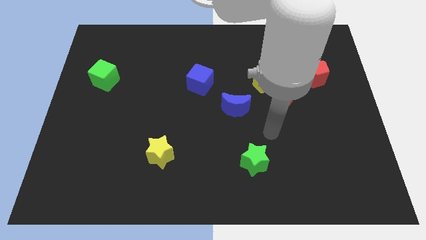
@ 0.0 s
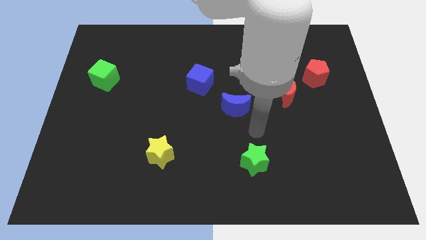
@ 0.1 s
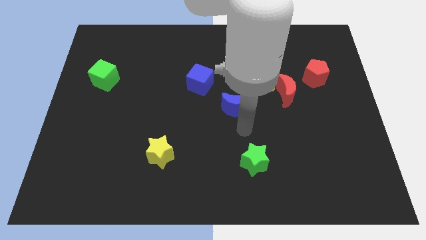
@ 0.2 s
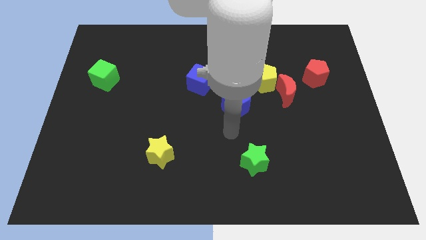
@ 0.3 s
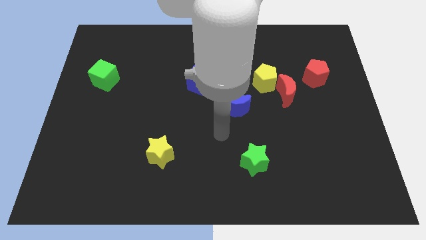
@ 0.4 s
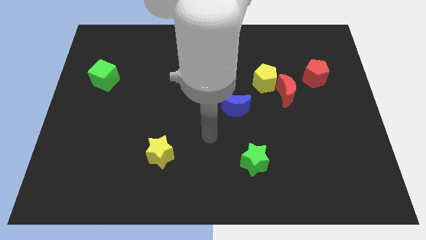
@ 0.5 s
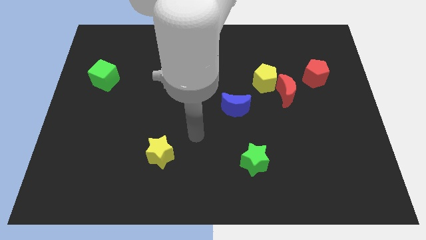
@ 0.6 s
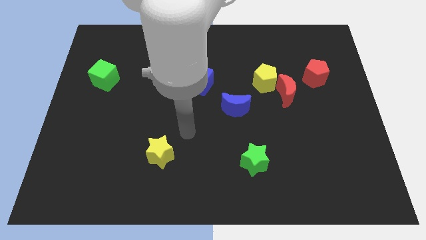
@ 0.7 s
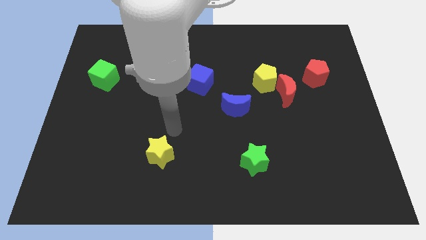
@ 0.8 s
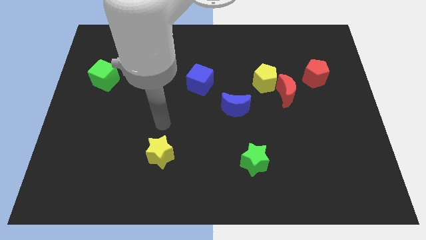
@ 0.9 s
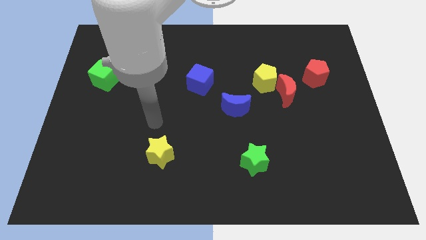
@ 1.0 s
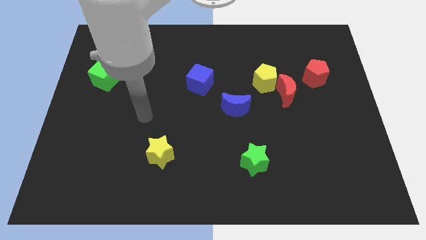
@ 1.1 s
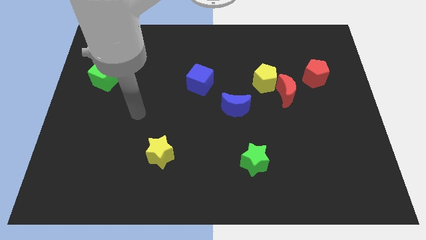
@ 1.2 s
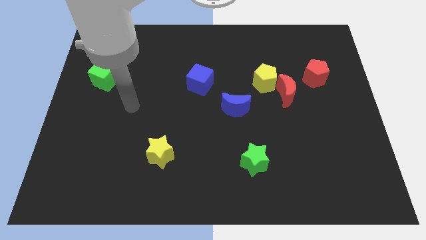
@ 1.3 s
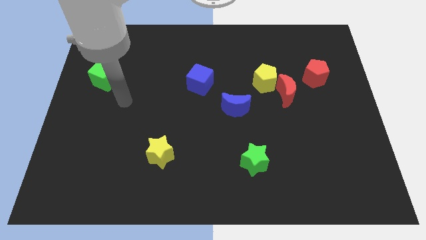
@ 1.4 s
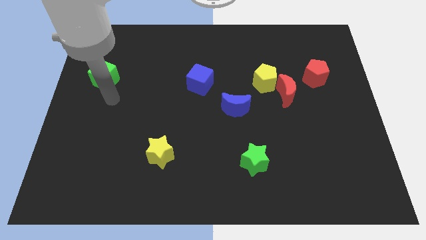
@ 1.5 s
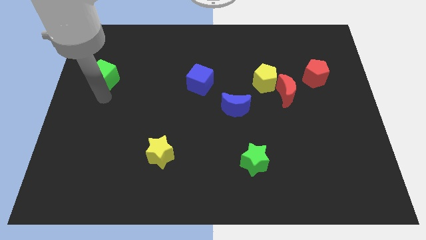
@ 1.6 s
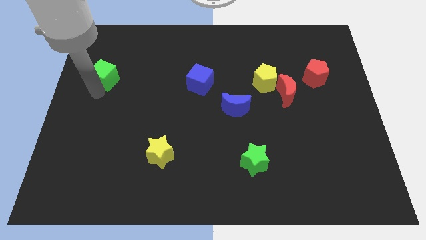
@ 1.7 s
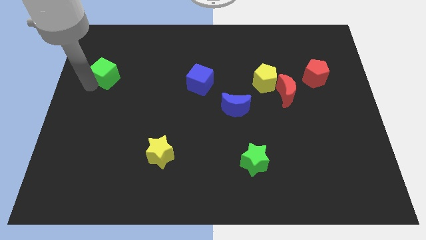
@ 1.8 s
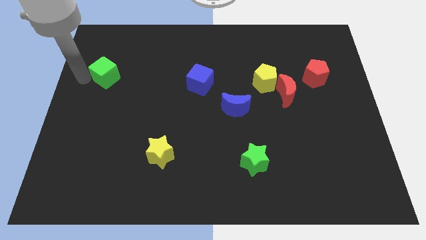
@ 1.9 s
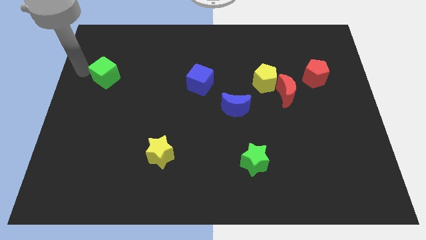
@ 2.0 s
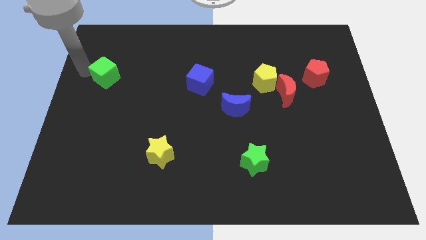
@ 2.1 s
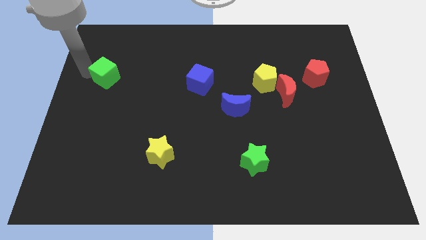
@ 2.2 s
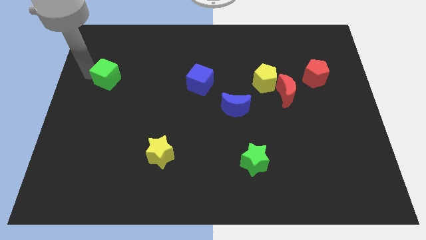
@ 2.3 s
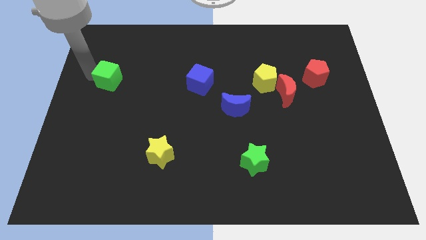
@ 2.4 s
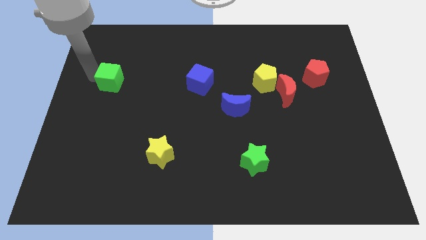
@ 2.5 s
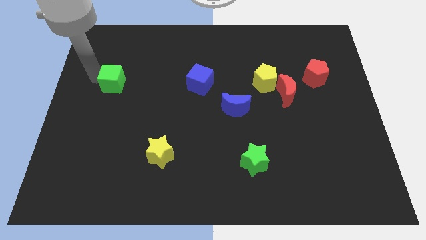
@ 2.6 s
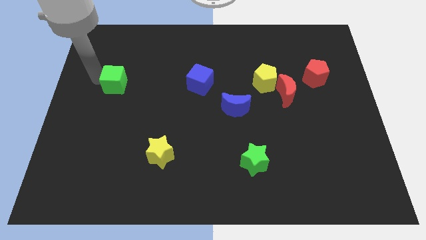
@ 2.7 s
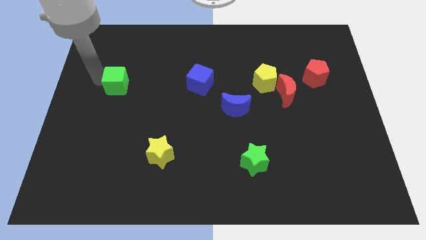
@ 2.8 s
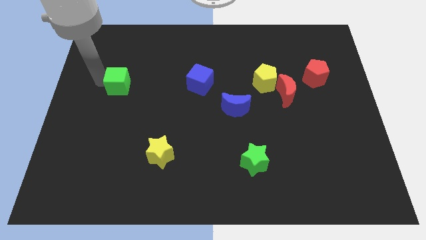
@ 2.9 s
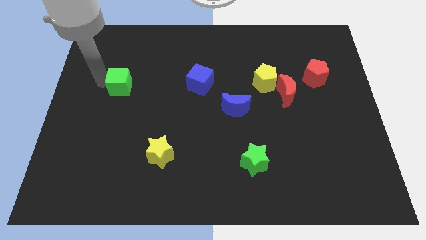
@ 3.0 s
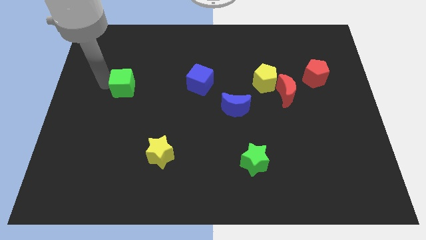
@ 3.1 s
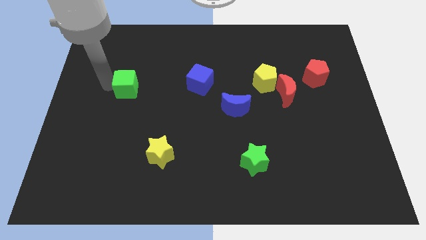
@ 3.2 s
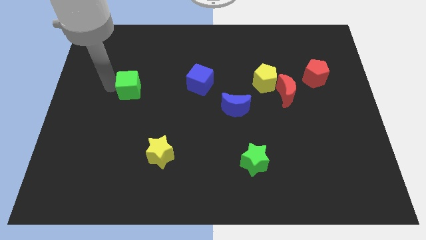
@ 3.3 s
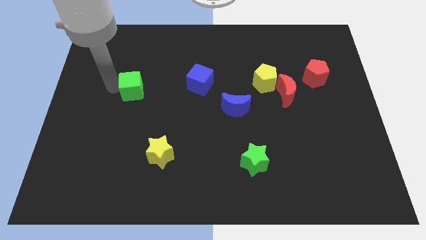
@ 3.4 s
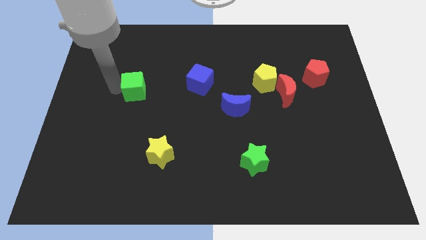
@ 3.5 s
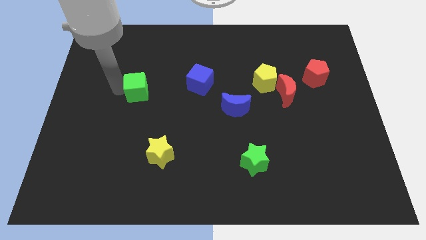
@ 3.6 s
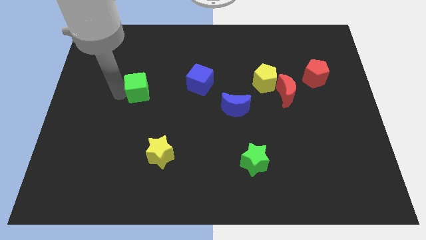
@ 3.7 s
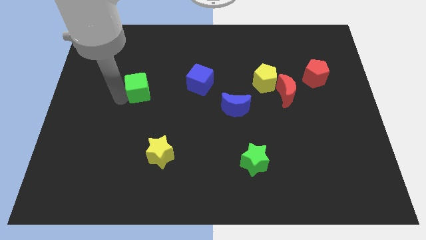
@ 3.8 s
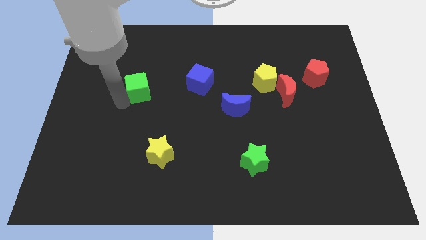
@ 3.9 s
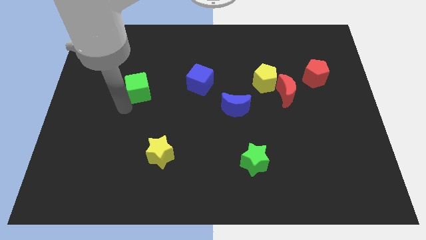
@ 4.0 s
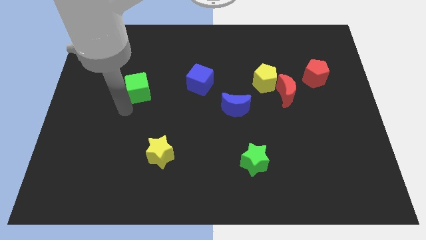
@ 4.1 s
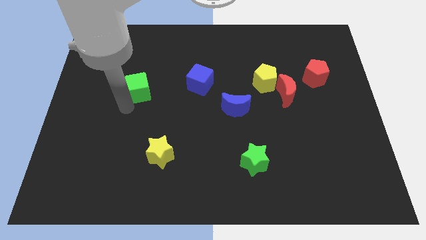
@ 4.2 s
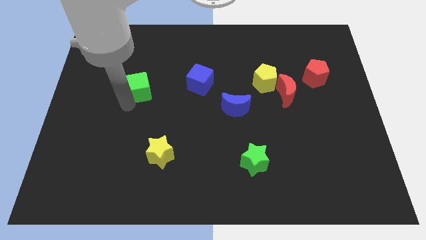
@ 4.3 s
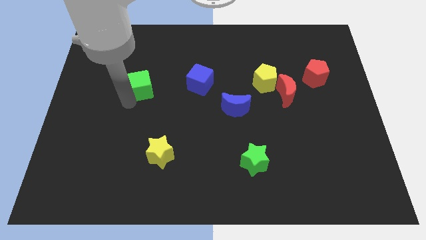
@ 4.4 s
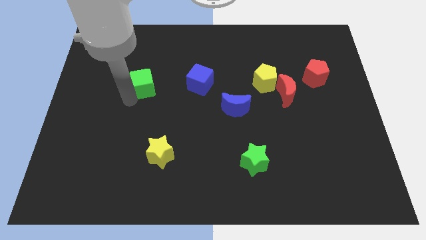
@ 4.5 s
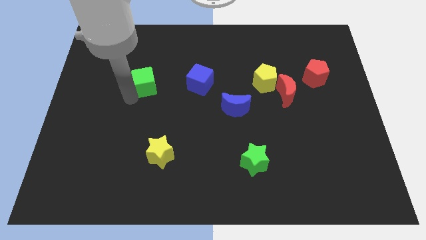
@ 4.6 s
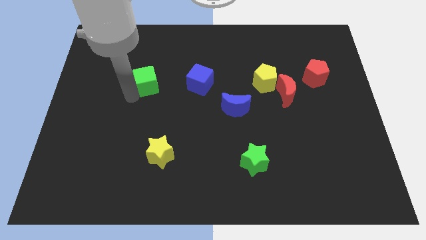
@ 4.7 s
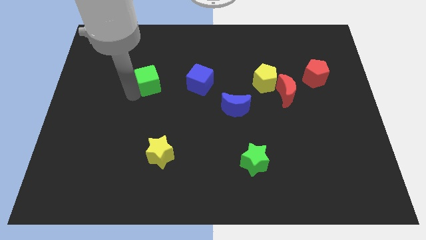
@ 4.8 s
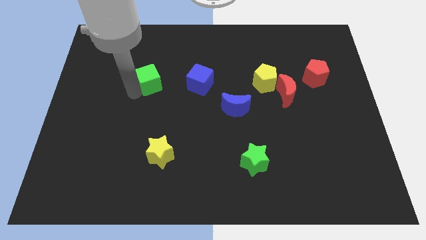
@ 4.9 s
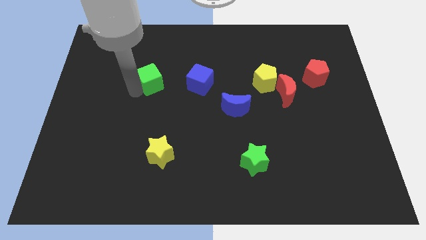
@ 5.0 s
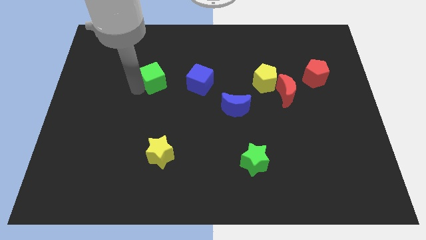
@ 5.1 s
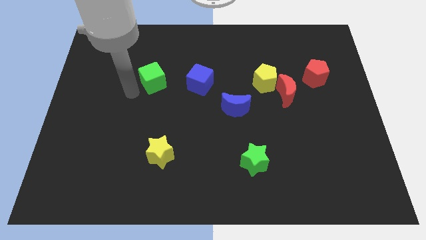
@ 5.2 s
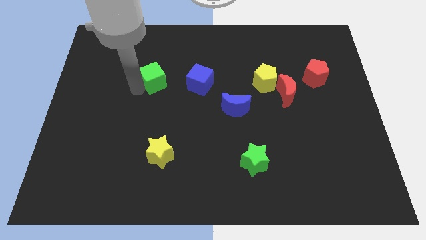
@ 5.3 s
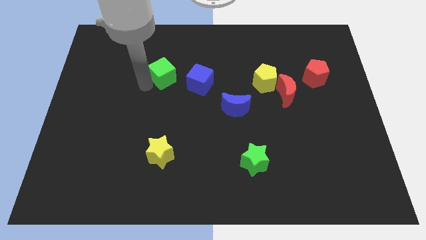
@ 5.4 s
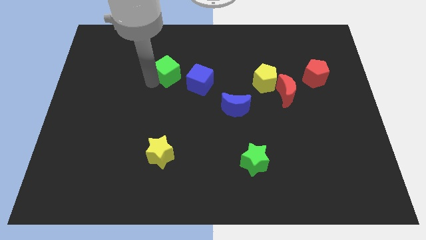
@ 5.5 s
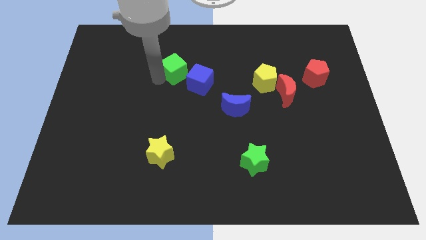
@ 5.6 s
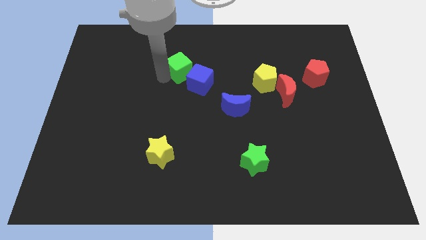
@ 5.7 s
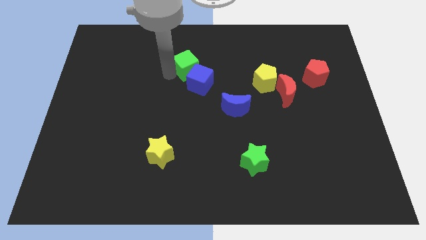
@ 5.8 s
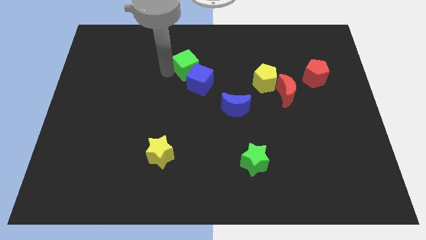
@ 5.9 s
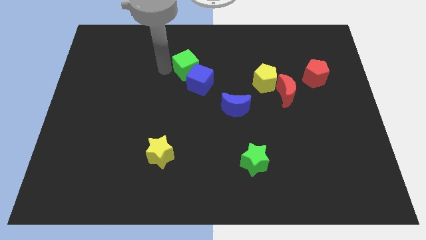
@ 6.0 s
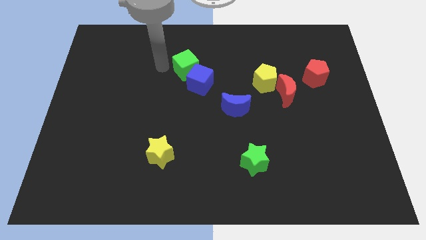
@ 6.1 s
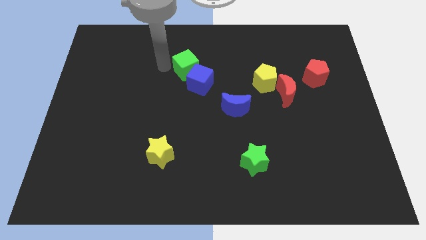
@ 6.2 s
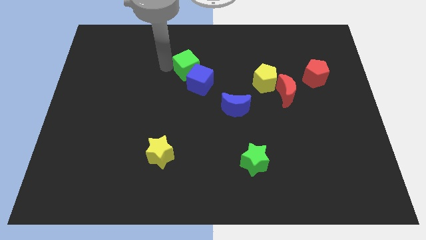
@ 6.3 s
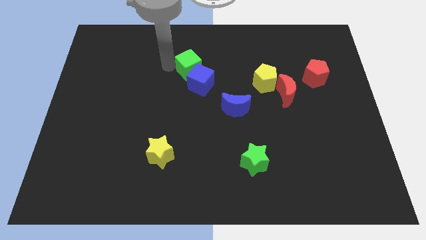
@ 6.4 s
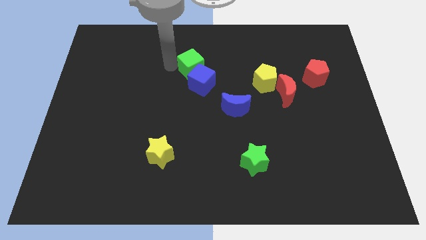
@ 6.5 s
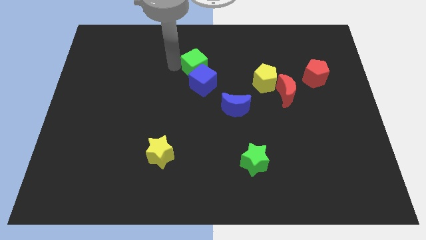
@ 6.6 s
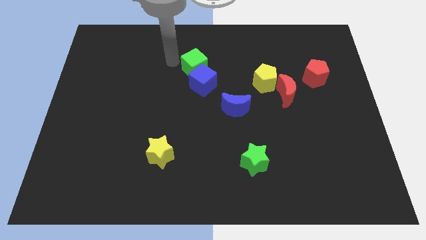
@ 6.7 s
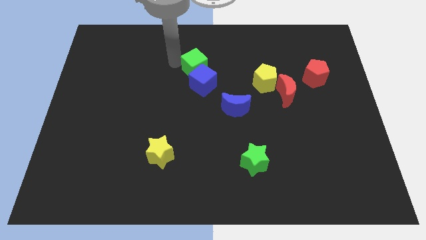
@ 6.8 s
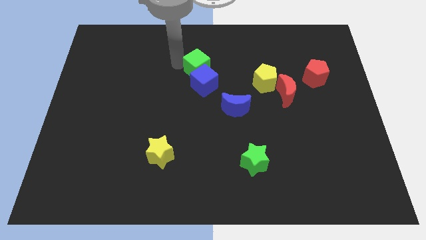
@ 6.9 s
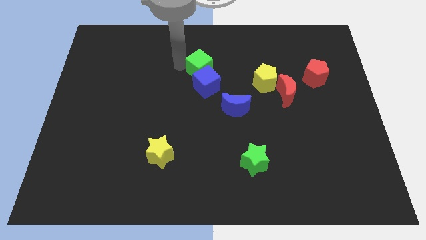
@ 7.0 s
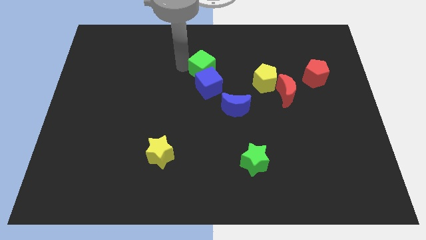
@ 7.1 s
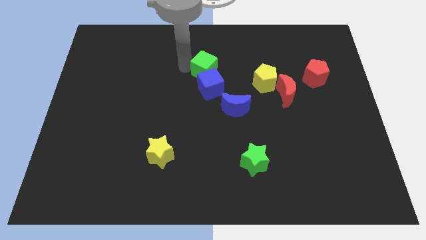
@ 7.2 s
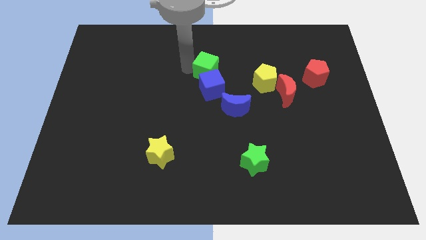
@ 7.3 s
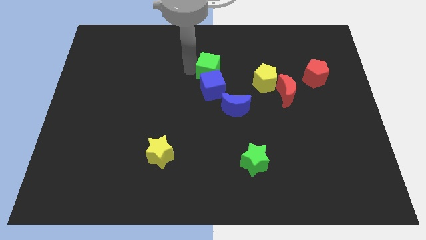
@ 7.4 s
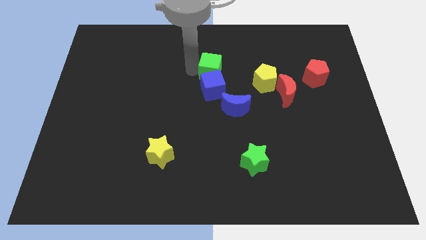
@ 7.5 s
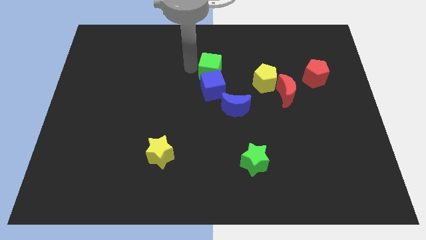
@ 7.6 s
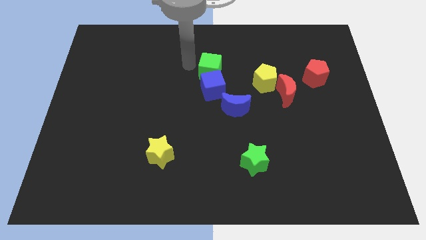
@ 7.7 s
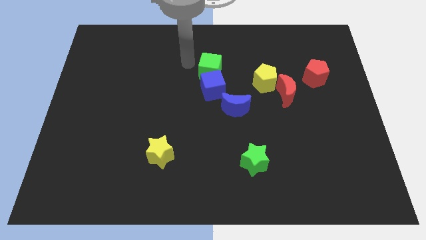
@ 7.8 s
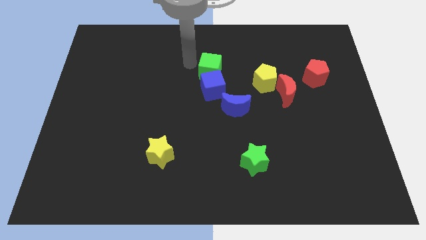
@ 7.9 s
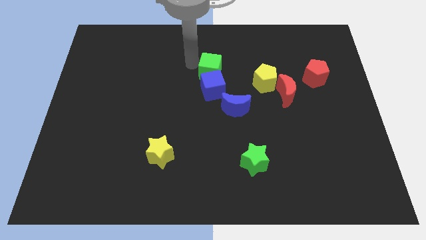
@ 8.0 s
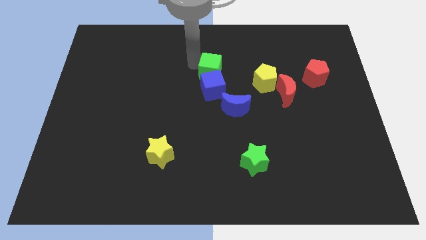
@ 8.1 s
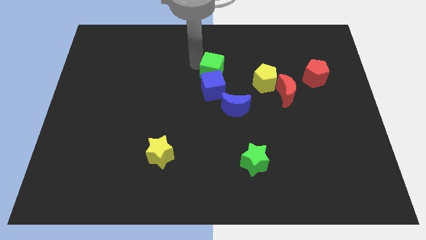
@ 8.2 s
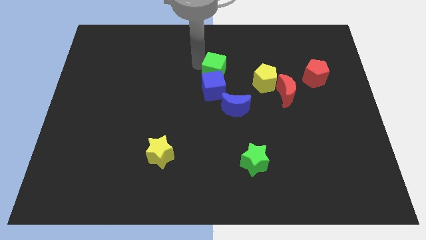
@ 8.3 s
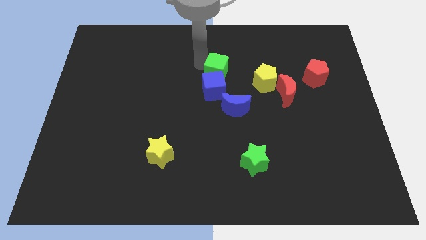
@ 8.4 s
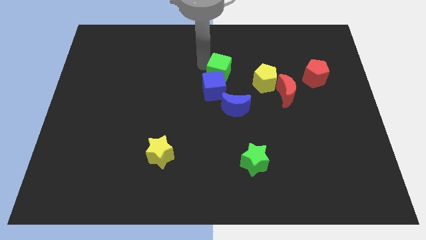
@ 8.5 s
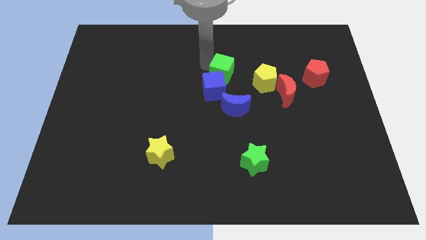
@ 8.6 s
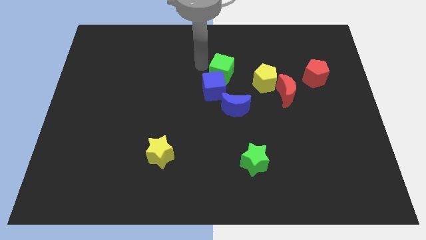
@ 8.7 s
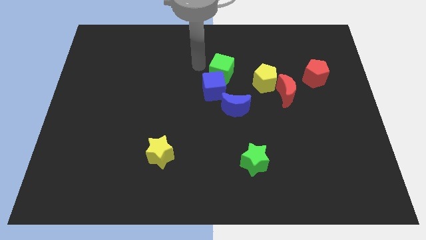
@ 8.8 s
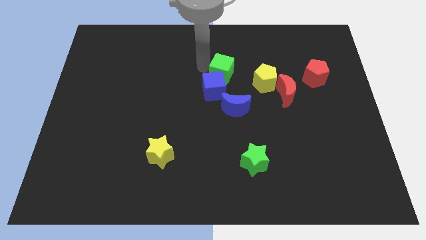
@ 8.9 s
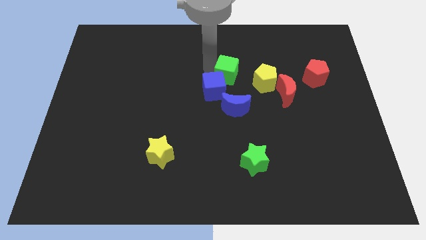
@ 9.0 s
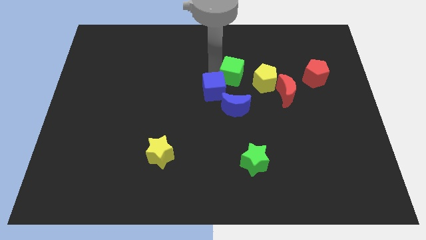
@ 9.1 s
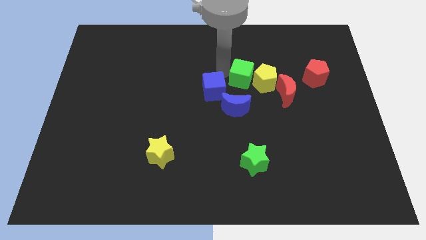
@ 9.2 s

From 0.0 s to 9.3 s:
move the green cube to the yellow pentagon
